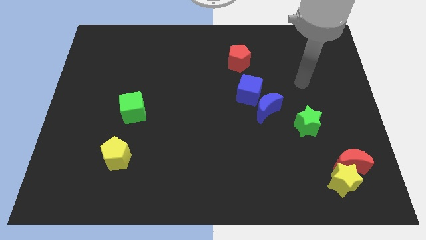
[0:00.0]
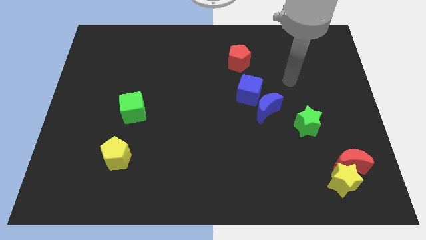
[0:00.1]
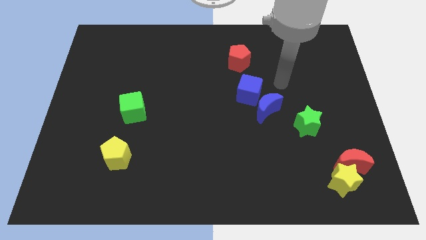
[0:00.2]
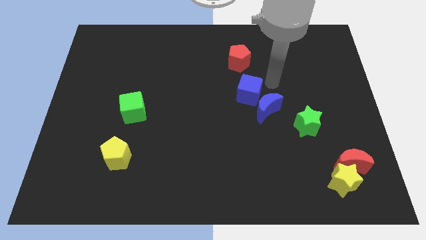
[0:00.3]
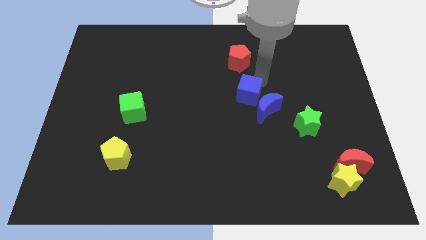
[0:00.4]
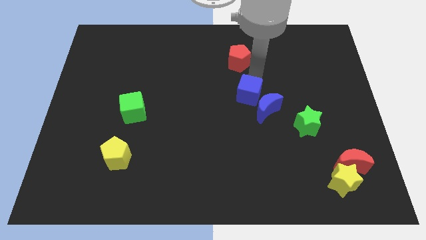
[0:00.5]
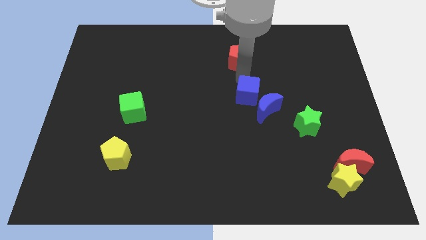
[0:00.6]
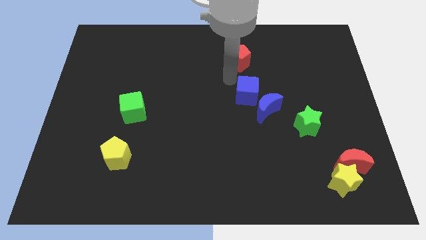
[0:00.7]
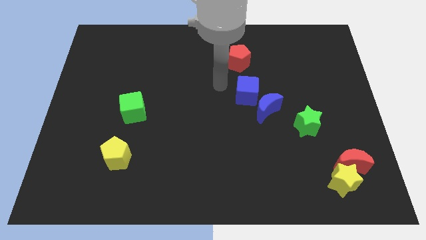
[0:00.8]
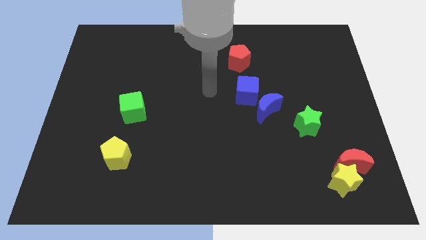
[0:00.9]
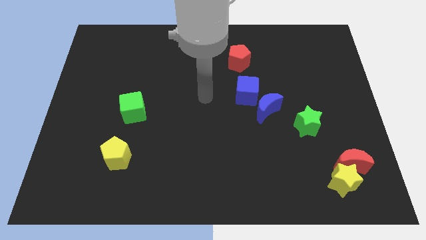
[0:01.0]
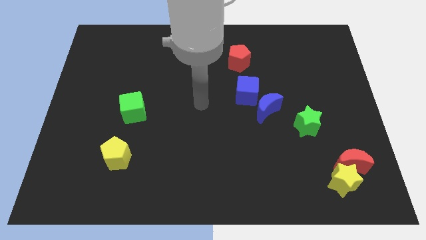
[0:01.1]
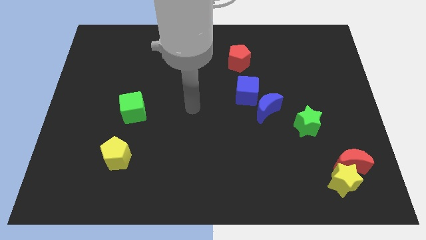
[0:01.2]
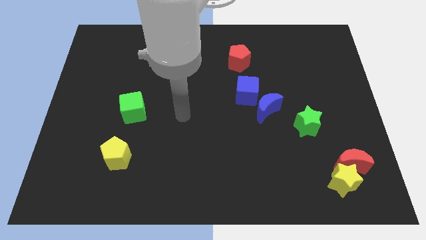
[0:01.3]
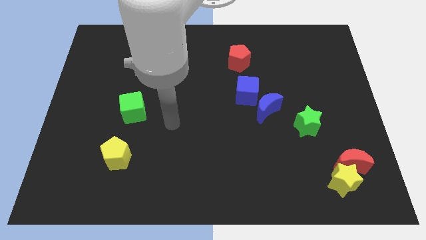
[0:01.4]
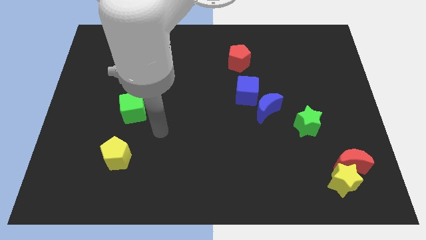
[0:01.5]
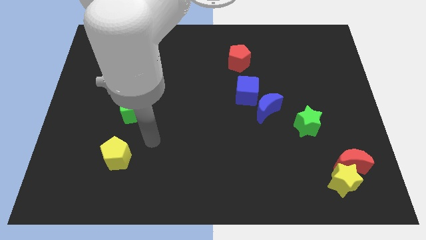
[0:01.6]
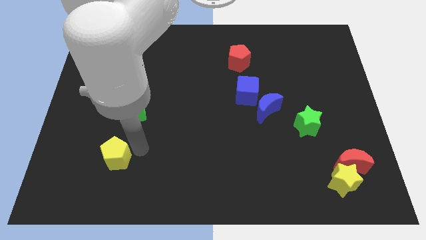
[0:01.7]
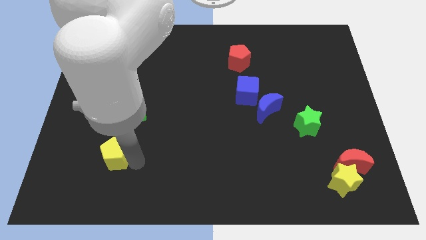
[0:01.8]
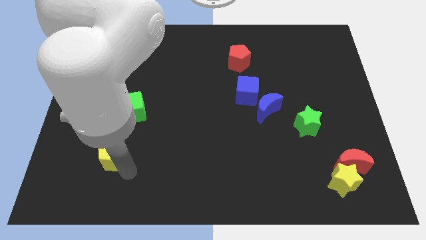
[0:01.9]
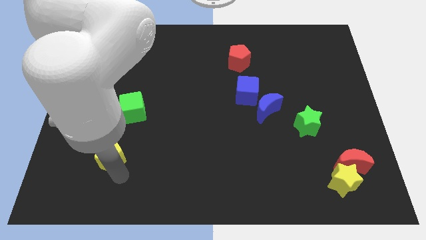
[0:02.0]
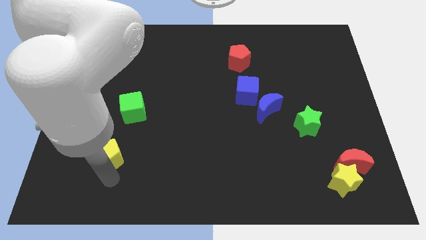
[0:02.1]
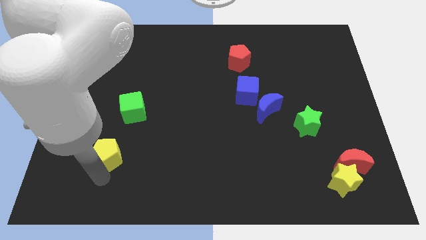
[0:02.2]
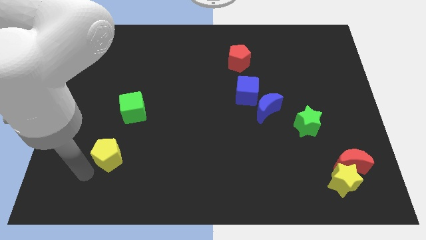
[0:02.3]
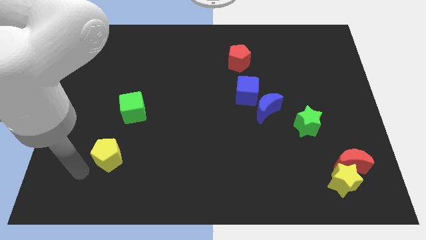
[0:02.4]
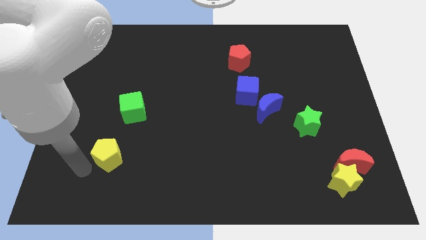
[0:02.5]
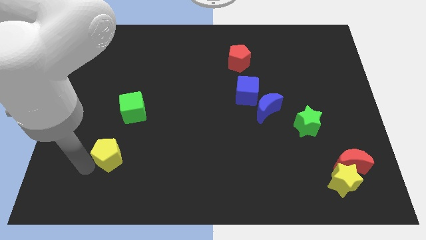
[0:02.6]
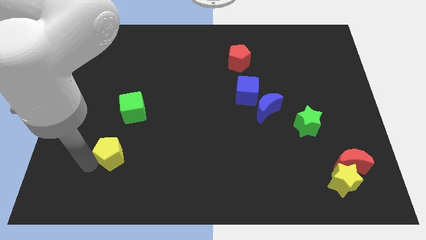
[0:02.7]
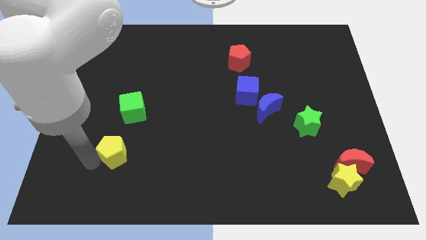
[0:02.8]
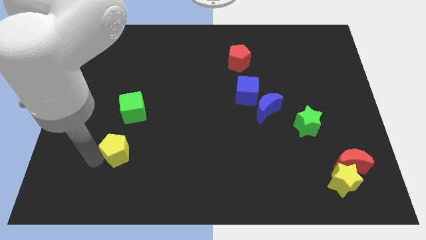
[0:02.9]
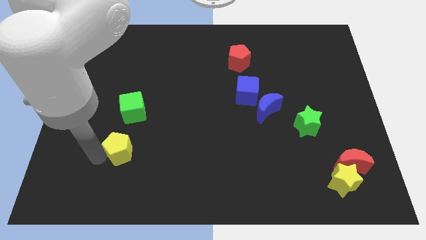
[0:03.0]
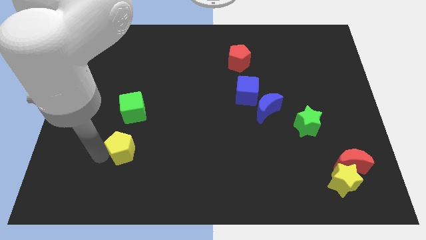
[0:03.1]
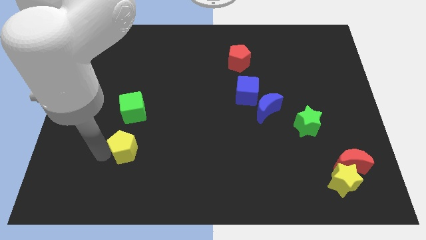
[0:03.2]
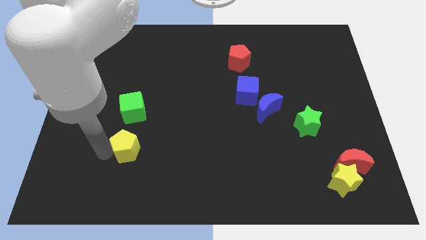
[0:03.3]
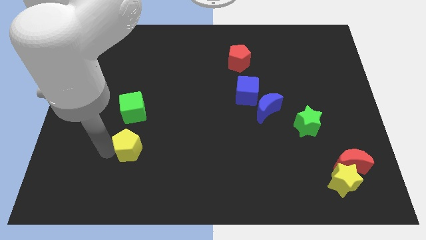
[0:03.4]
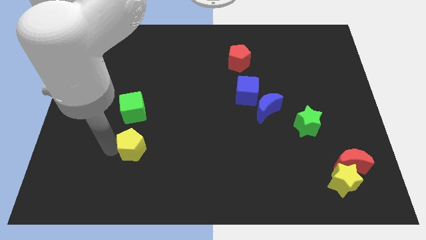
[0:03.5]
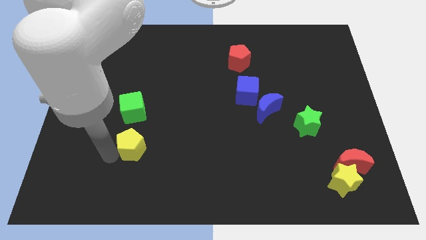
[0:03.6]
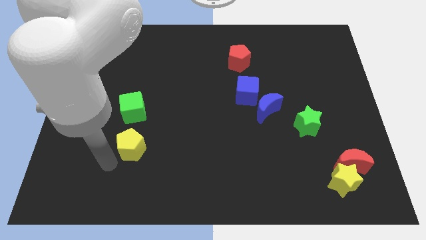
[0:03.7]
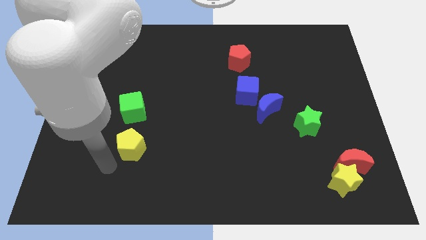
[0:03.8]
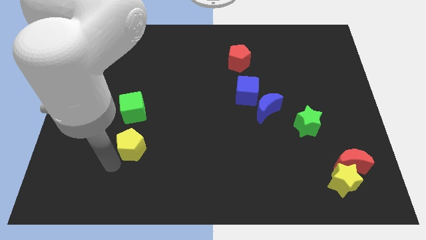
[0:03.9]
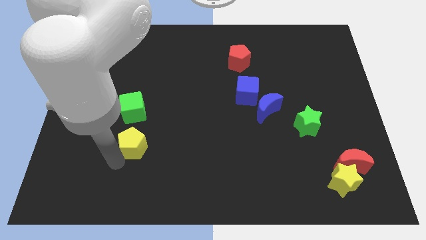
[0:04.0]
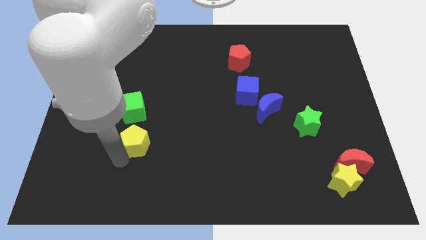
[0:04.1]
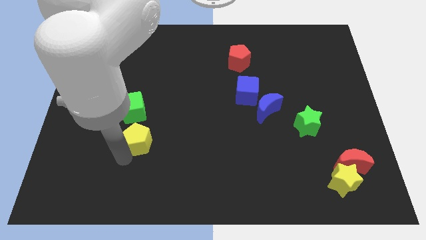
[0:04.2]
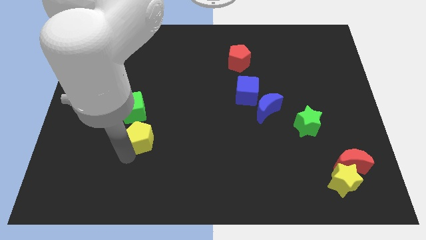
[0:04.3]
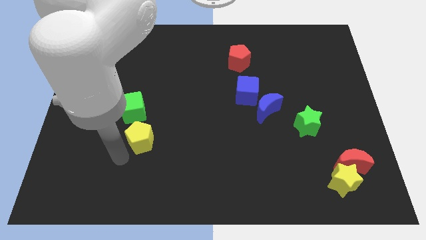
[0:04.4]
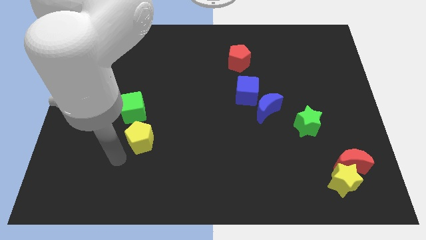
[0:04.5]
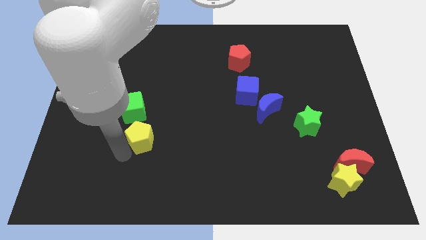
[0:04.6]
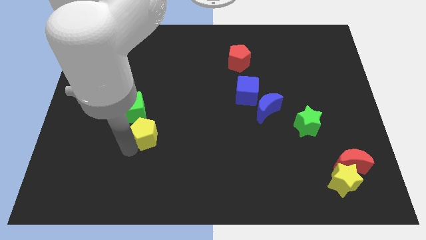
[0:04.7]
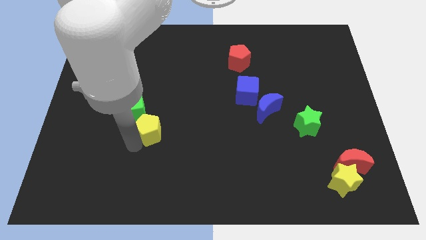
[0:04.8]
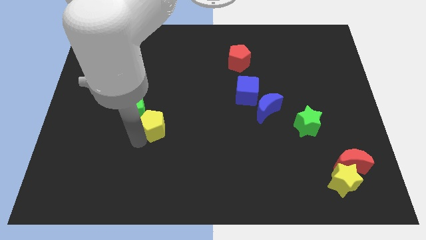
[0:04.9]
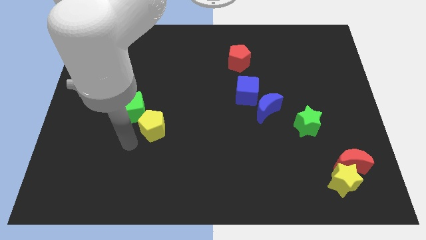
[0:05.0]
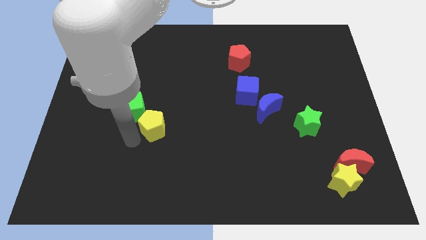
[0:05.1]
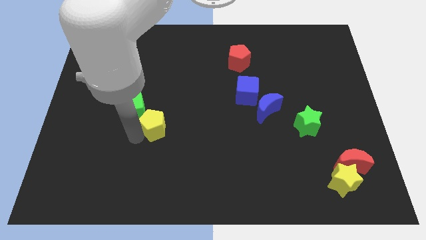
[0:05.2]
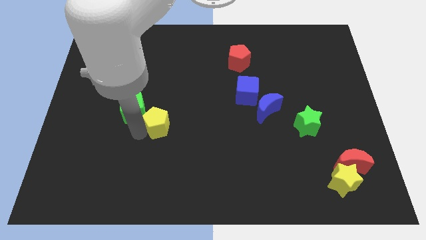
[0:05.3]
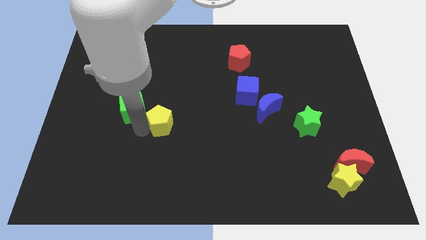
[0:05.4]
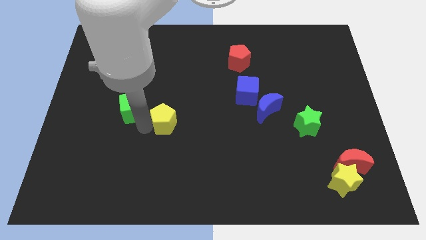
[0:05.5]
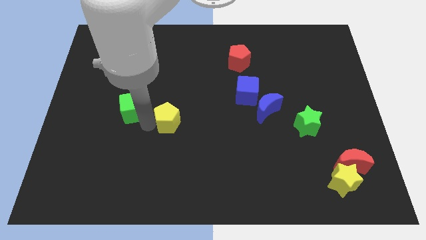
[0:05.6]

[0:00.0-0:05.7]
slide the yellow pentagon to the middle

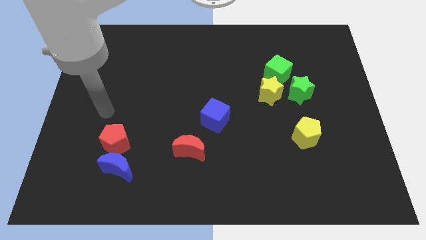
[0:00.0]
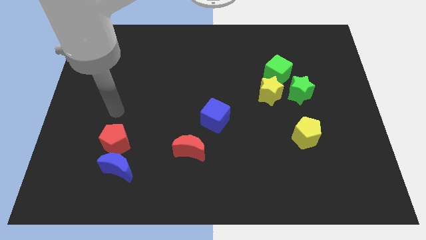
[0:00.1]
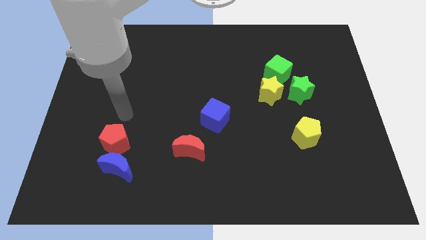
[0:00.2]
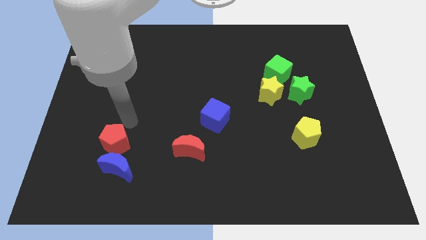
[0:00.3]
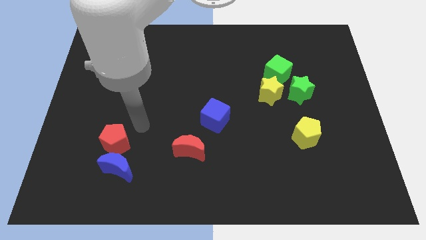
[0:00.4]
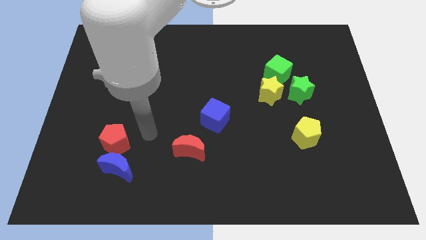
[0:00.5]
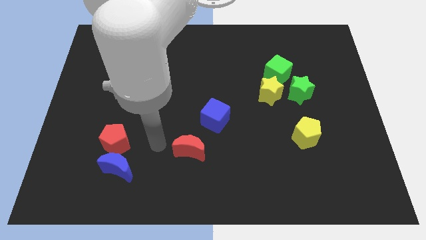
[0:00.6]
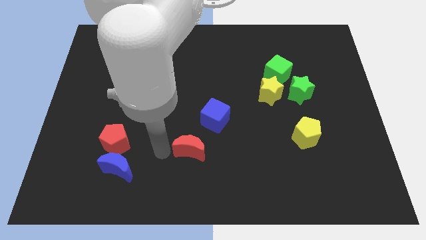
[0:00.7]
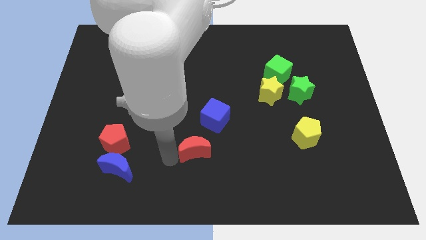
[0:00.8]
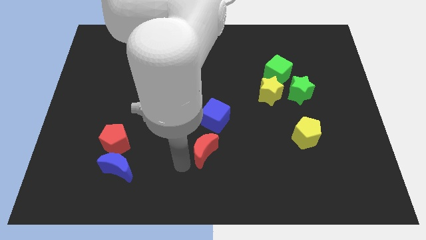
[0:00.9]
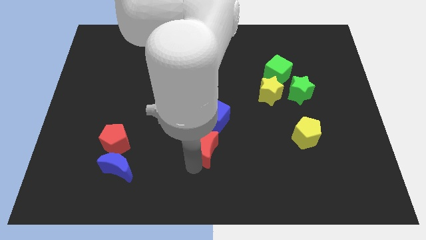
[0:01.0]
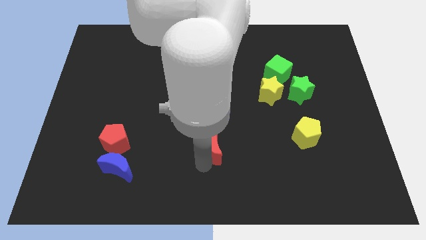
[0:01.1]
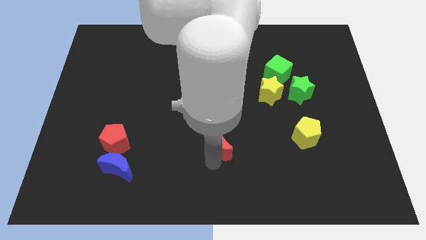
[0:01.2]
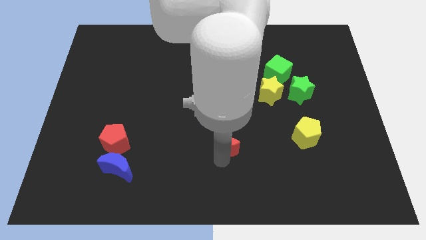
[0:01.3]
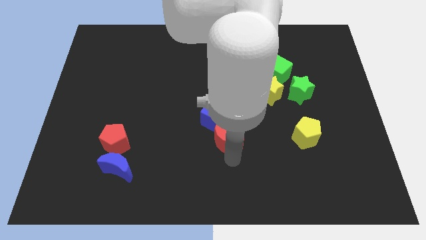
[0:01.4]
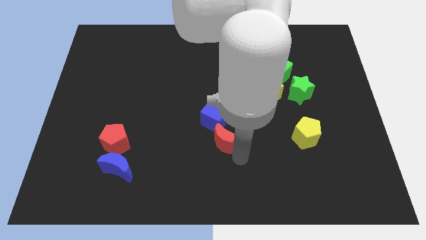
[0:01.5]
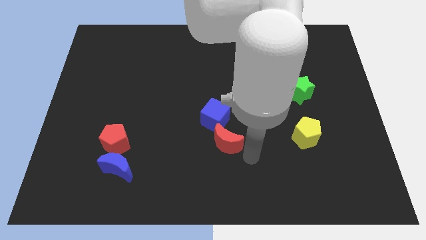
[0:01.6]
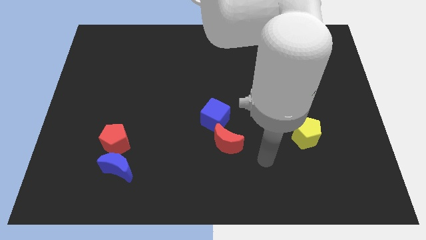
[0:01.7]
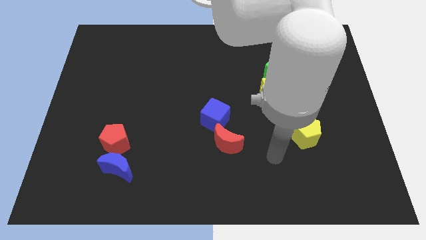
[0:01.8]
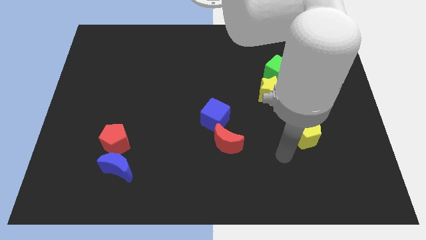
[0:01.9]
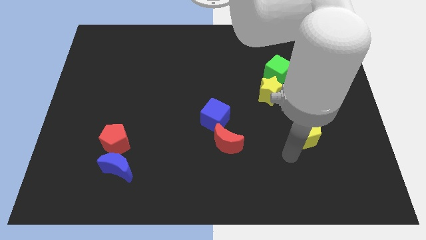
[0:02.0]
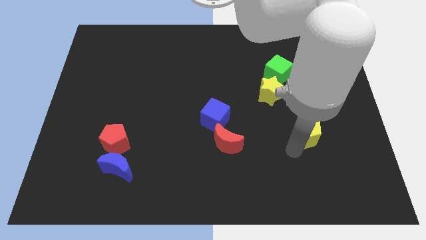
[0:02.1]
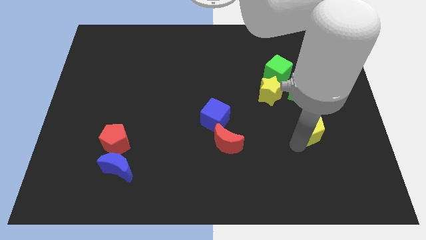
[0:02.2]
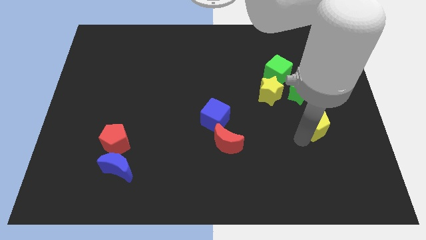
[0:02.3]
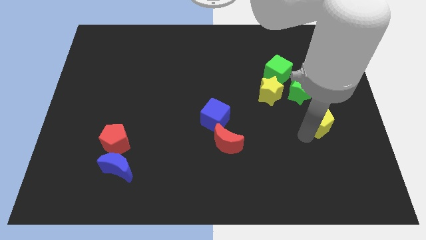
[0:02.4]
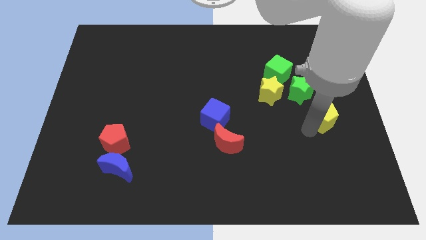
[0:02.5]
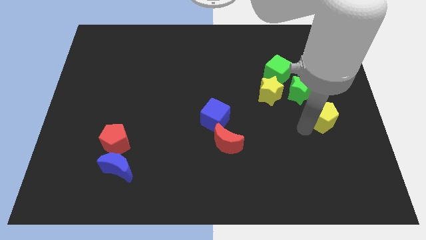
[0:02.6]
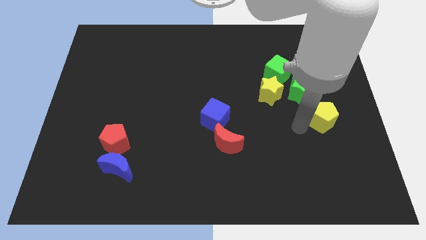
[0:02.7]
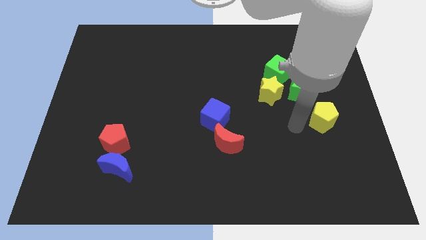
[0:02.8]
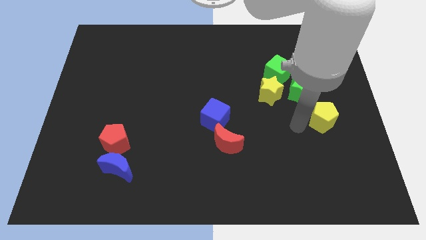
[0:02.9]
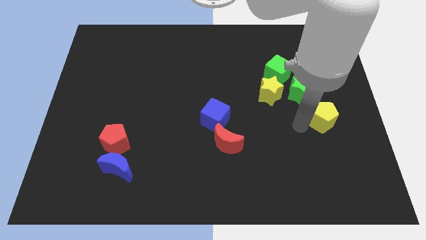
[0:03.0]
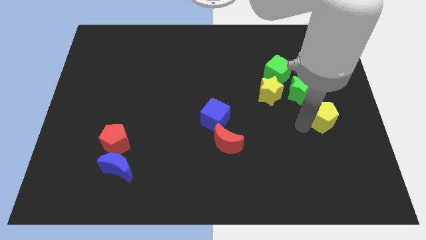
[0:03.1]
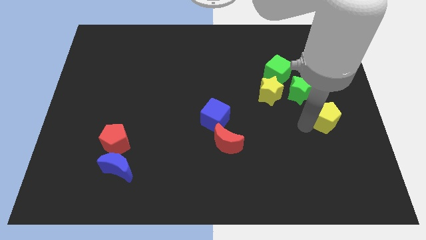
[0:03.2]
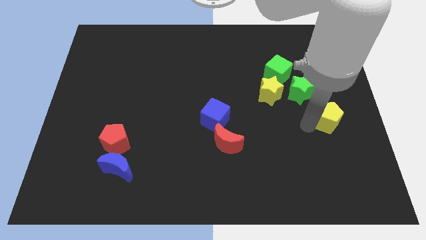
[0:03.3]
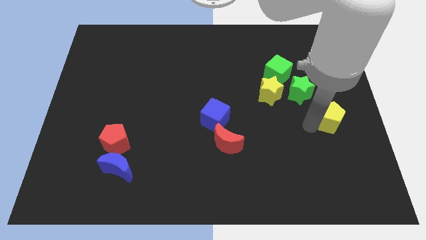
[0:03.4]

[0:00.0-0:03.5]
push the yellow pentagon to the center right
